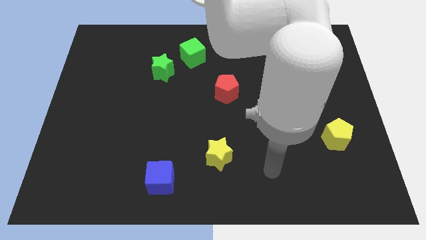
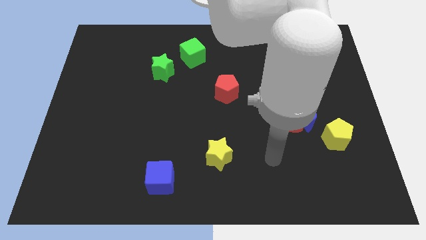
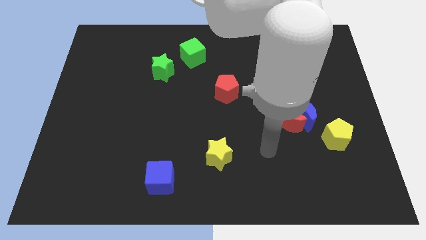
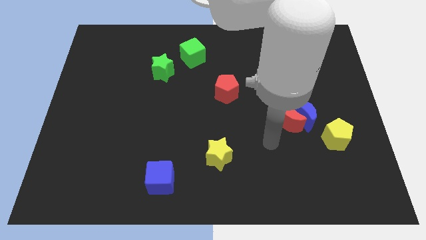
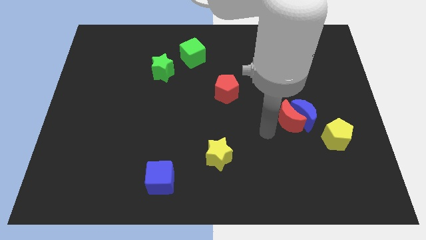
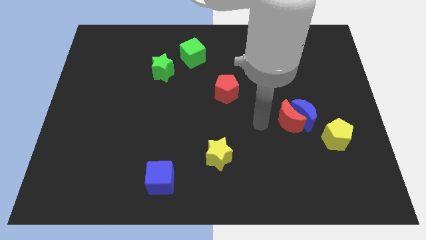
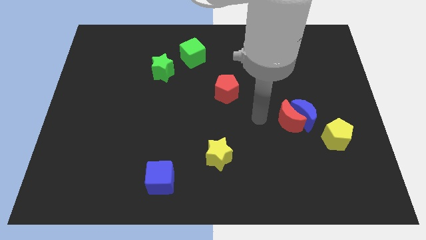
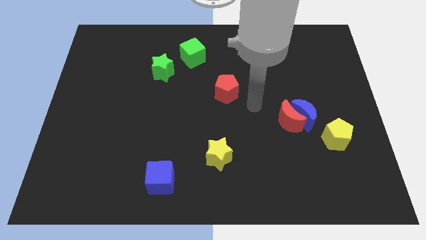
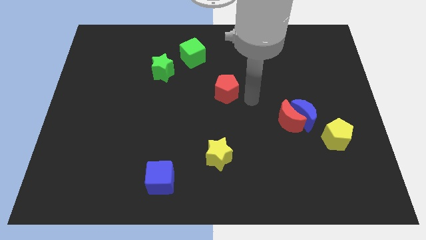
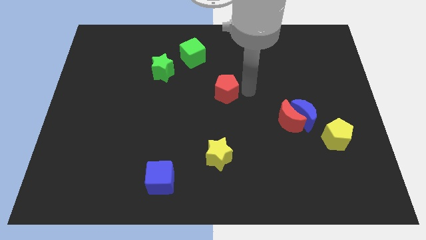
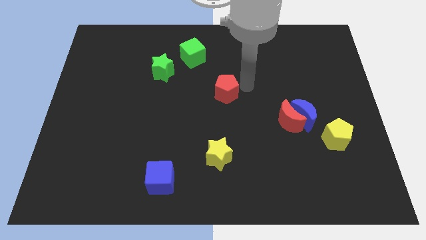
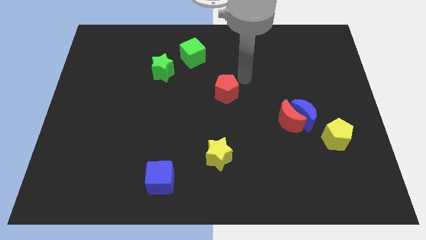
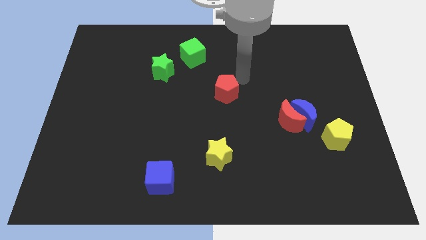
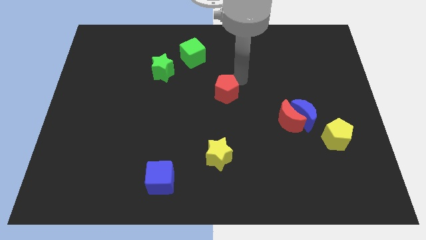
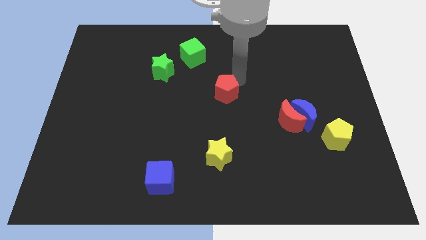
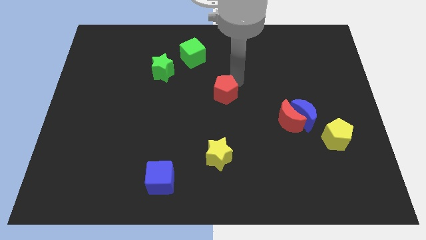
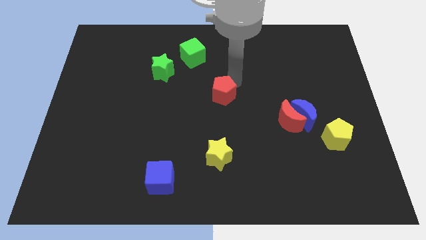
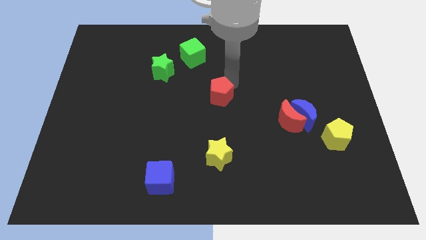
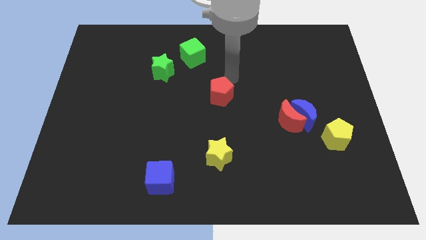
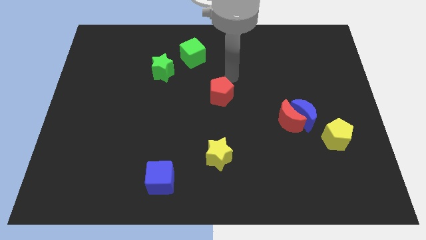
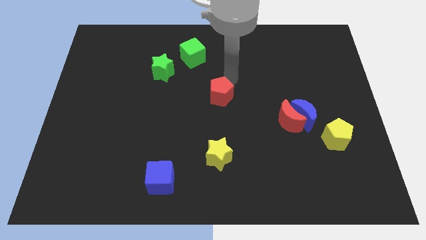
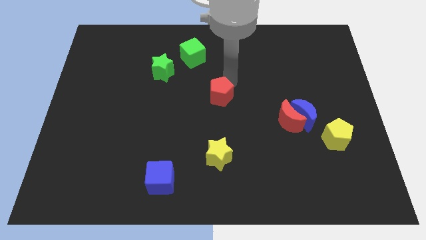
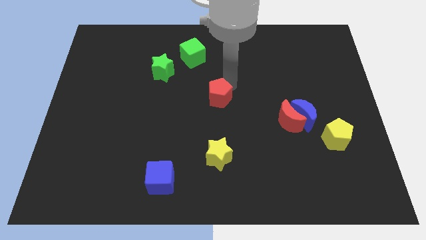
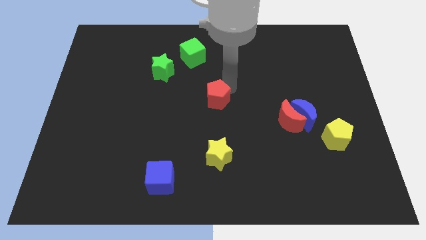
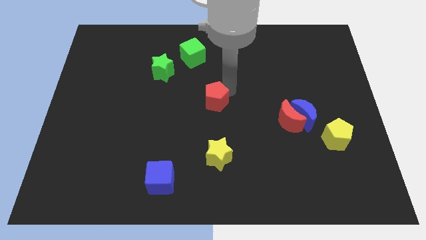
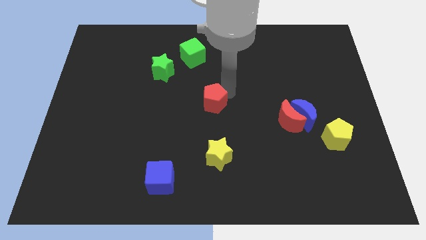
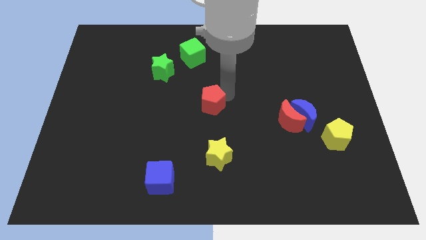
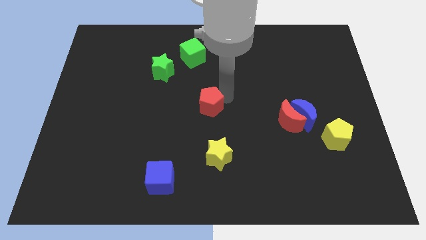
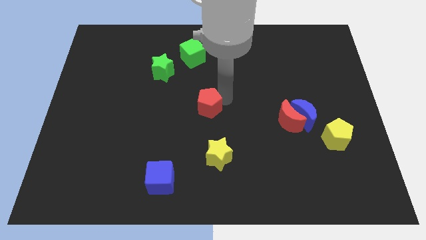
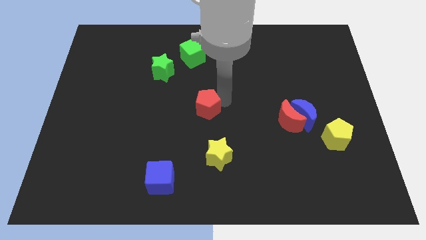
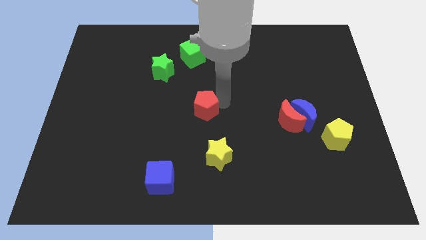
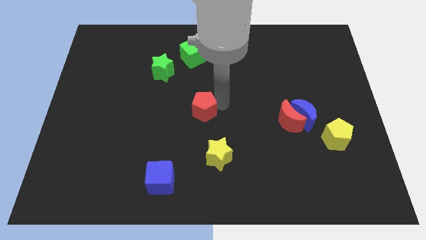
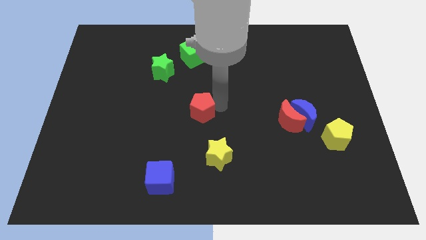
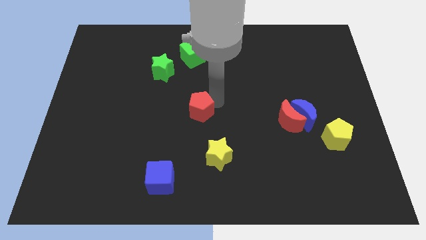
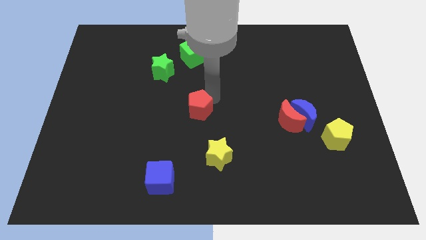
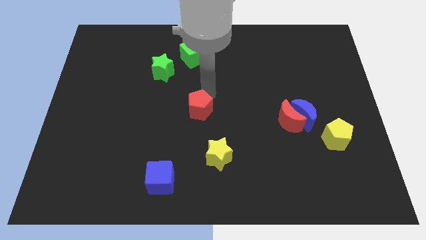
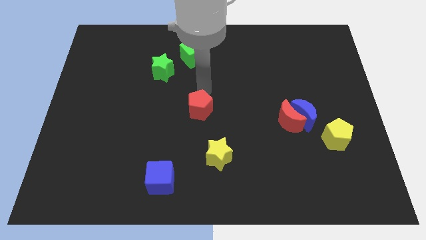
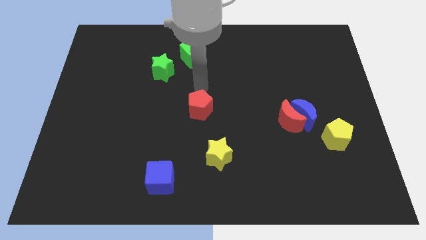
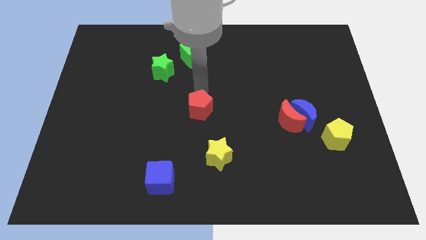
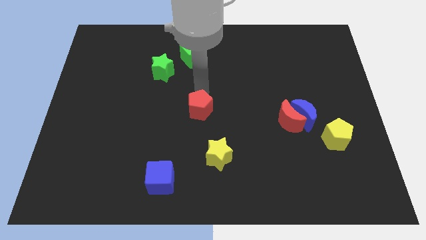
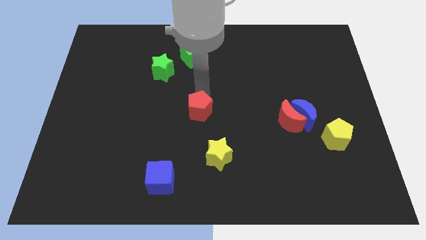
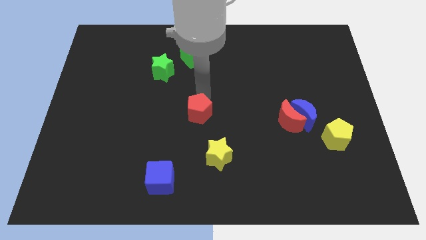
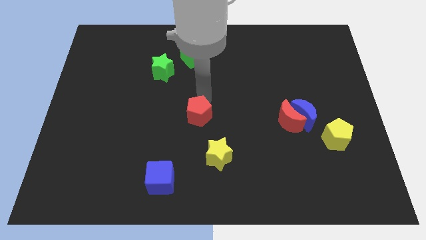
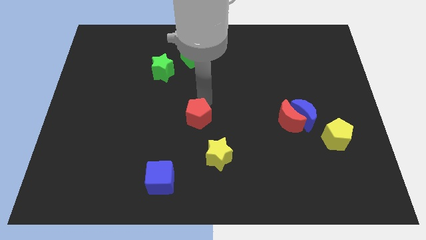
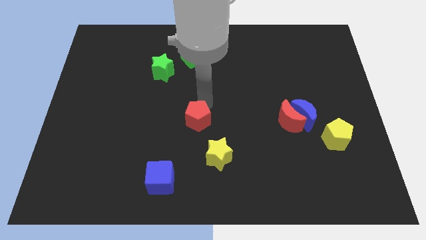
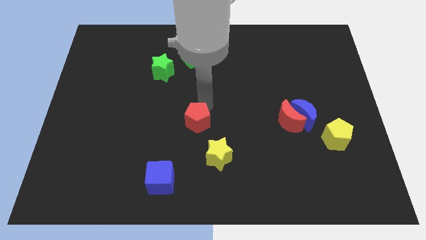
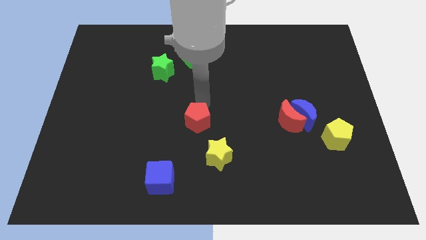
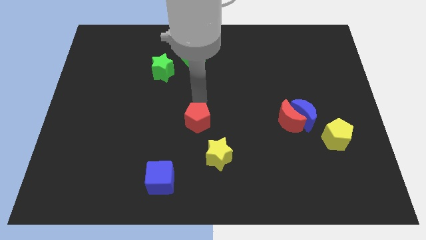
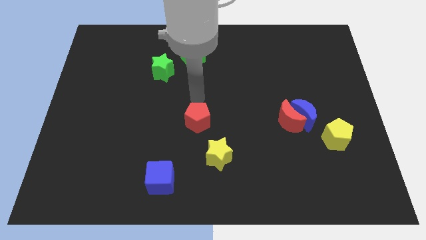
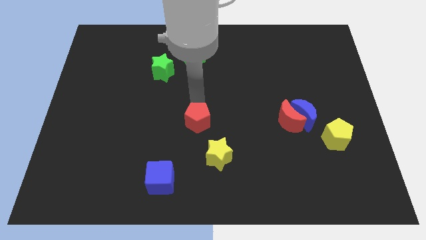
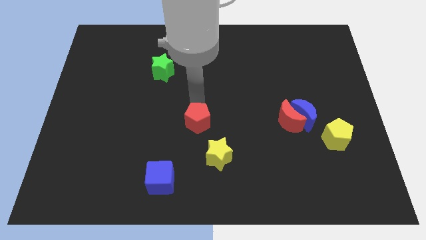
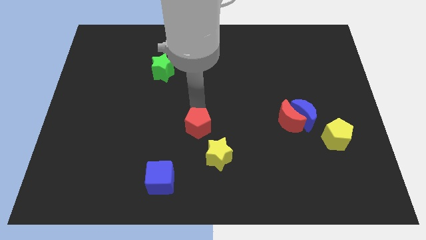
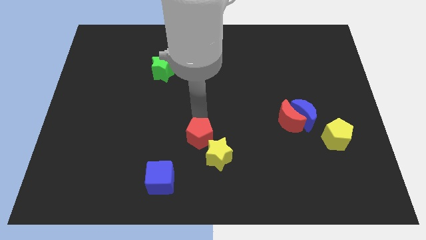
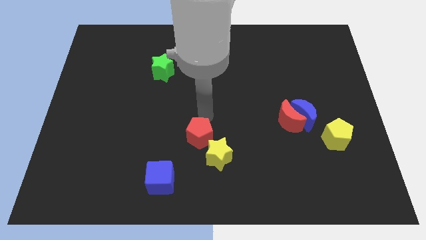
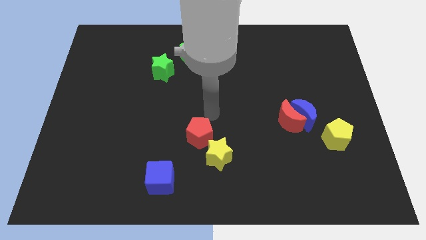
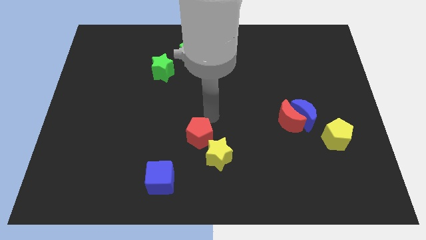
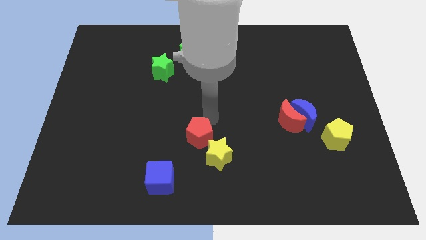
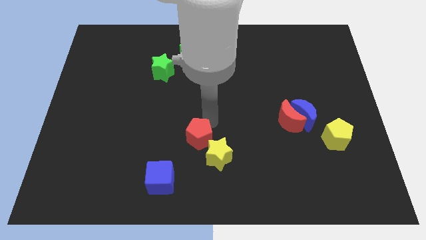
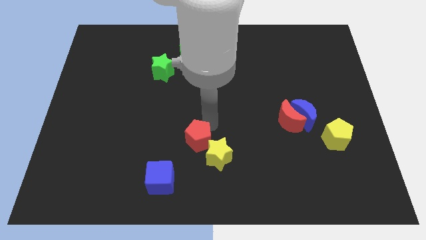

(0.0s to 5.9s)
push the red pentagon to the top right side of the blue cube

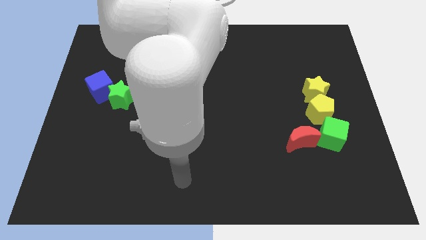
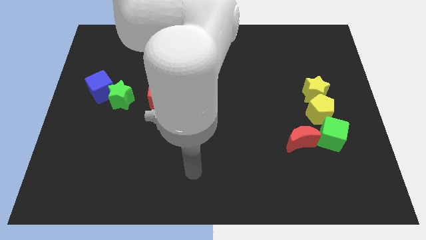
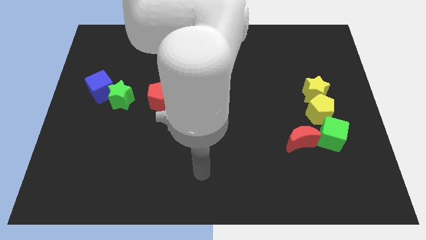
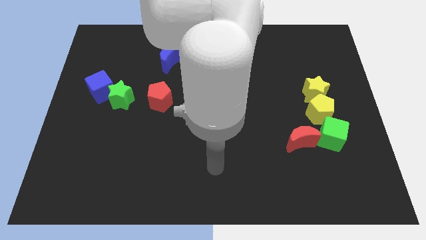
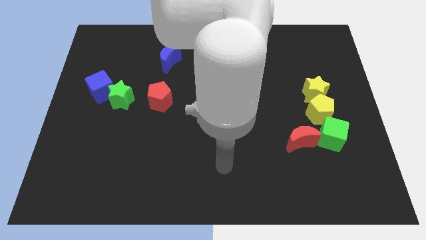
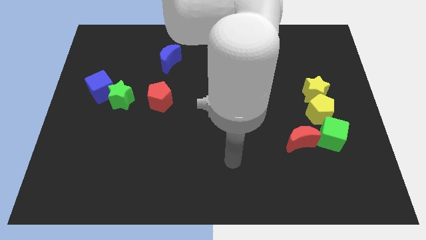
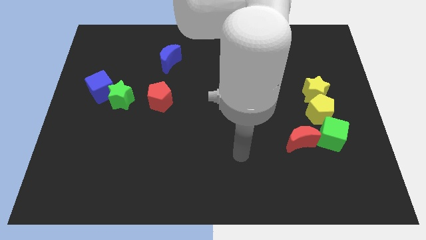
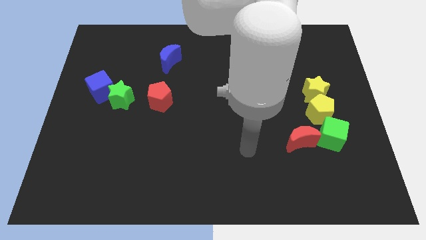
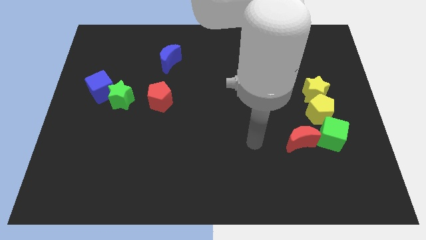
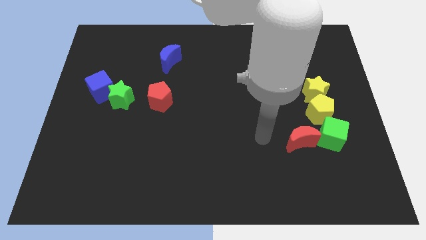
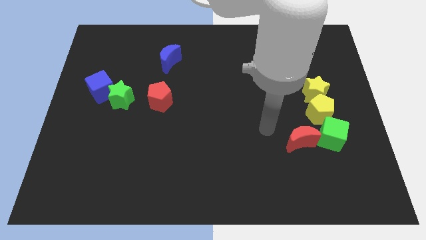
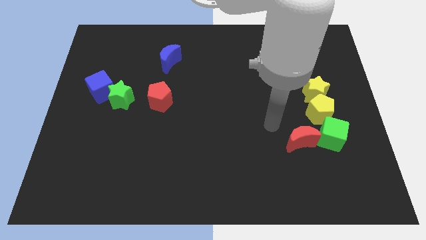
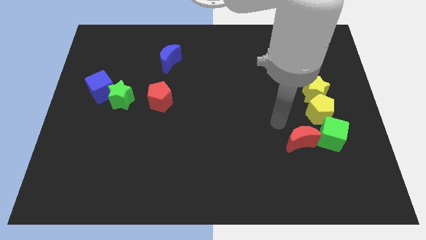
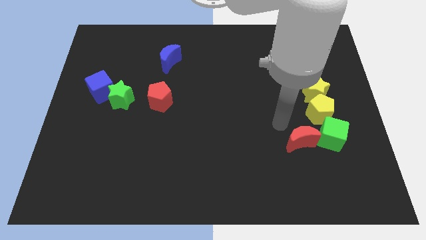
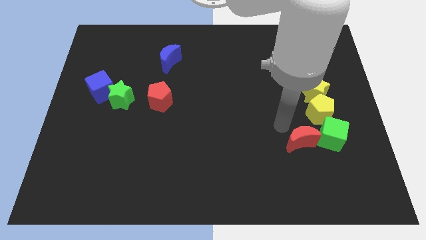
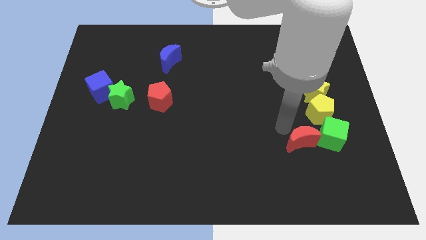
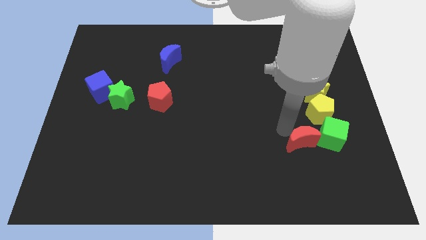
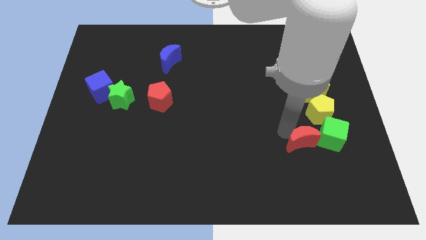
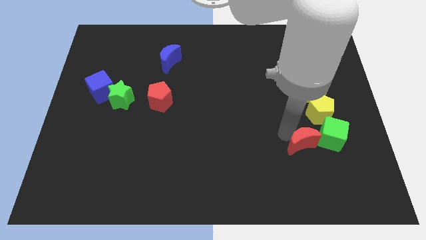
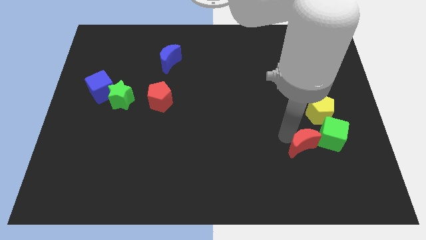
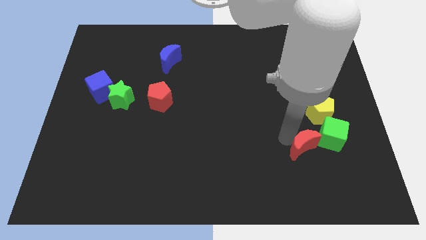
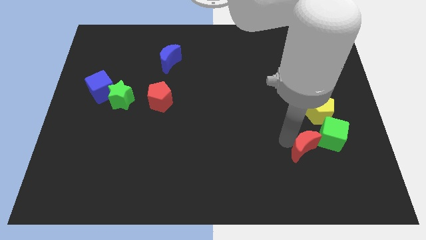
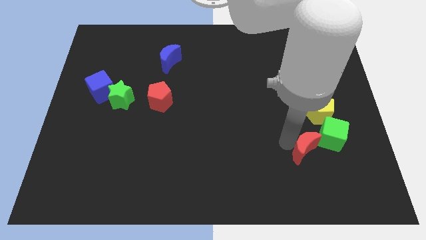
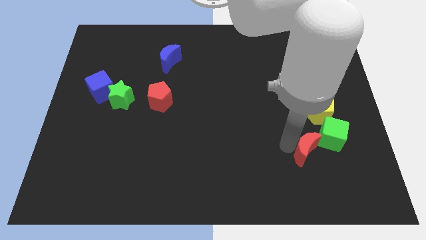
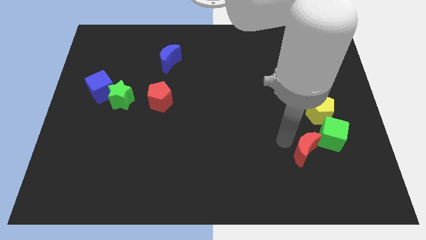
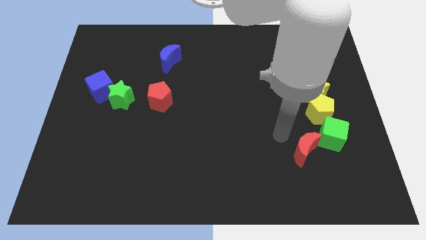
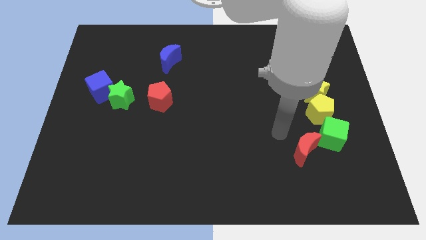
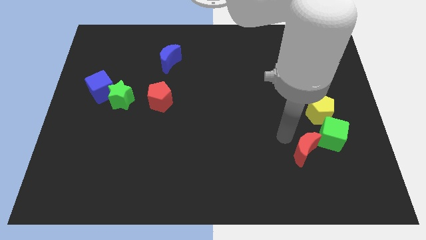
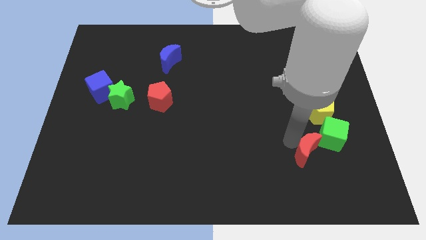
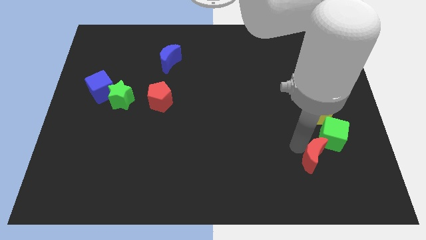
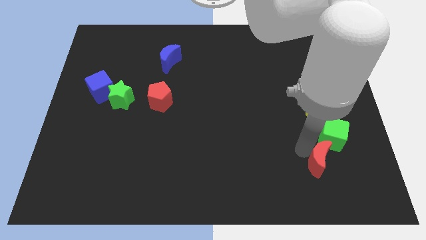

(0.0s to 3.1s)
move the red moon to the bottom of the green cube
